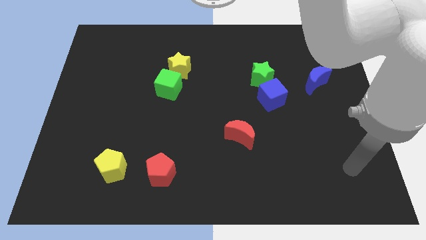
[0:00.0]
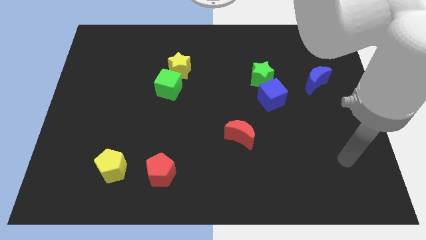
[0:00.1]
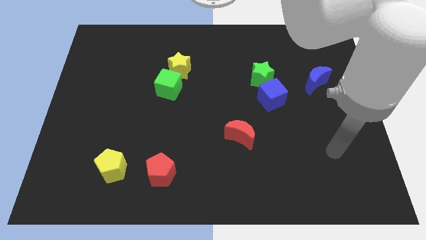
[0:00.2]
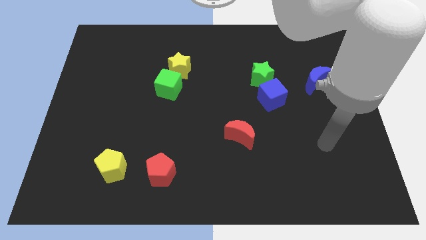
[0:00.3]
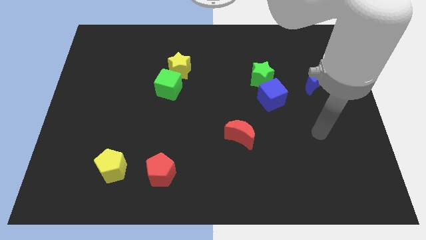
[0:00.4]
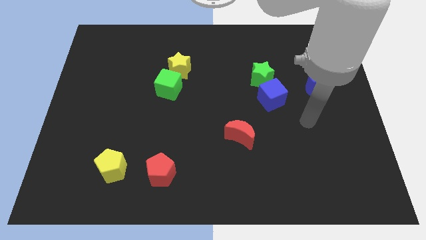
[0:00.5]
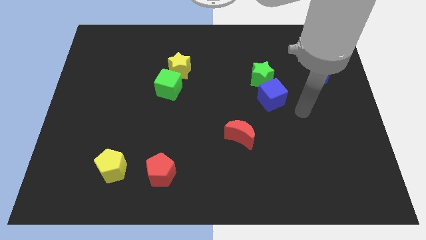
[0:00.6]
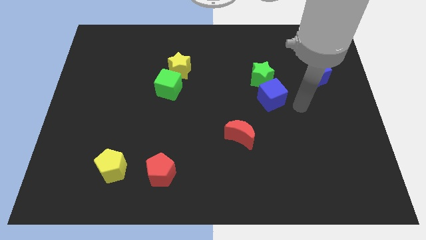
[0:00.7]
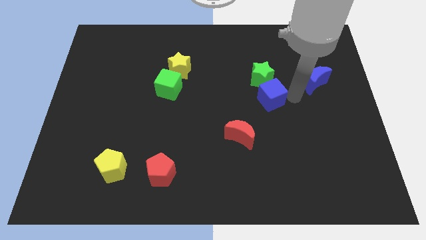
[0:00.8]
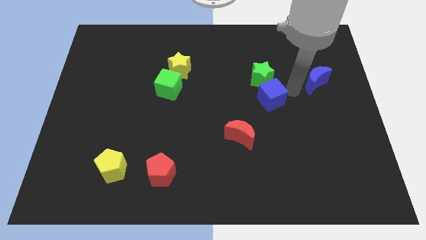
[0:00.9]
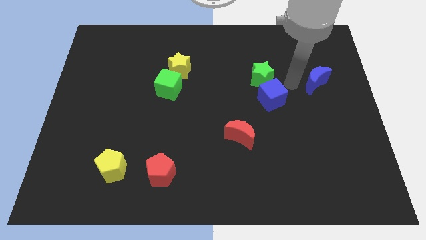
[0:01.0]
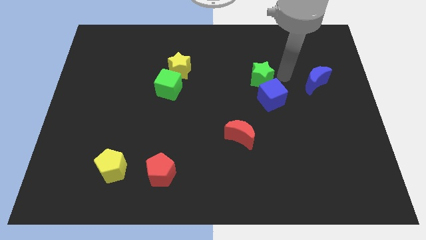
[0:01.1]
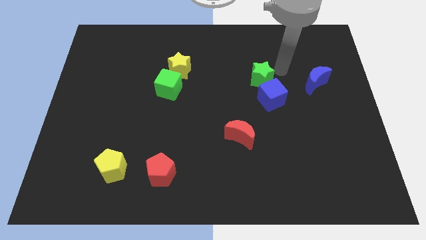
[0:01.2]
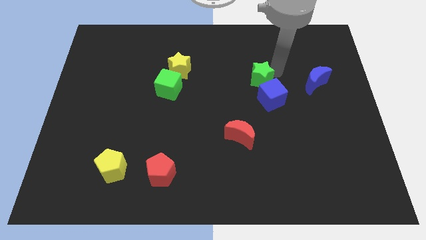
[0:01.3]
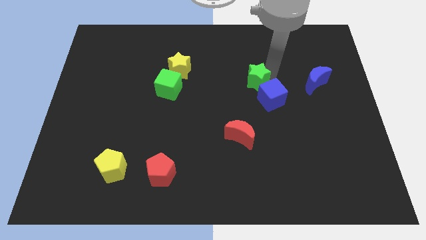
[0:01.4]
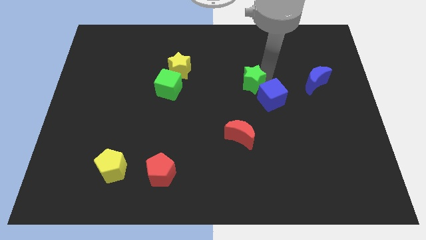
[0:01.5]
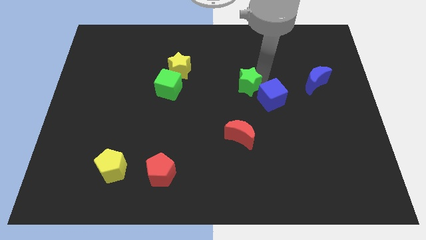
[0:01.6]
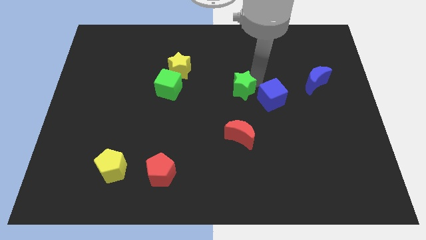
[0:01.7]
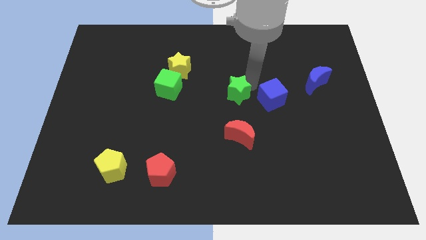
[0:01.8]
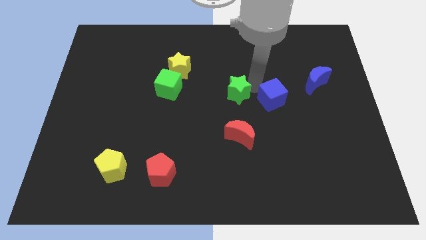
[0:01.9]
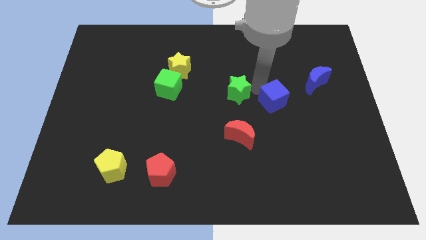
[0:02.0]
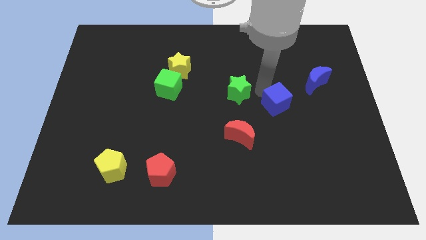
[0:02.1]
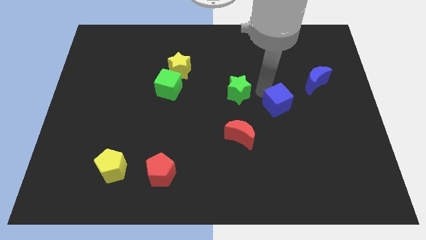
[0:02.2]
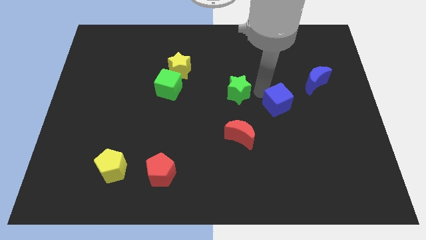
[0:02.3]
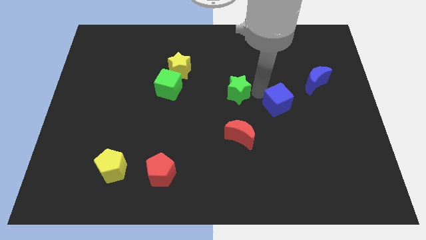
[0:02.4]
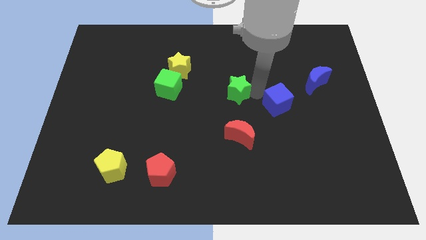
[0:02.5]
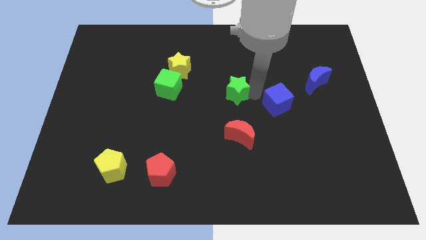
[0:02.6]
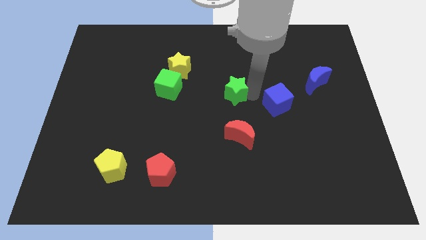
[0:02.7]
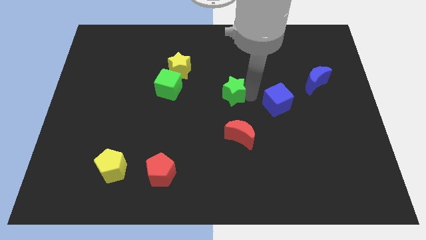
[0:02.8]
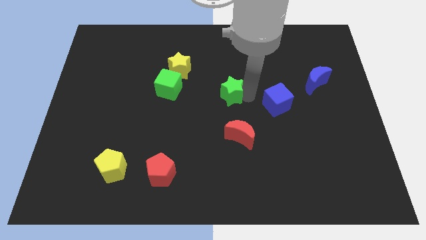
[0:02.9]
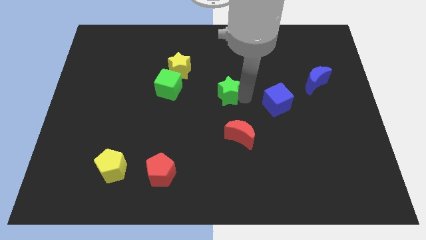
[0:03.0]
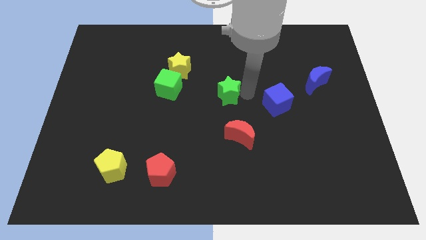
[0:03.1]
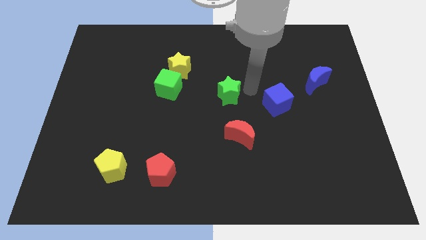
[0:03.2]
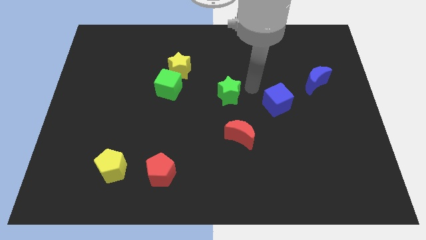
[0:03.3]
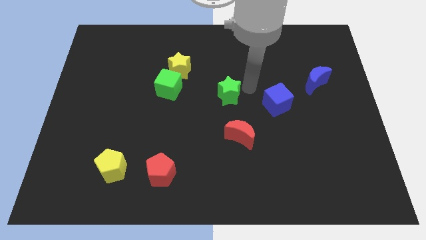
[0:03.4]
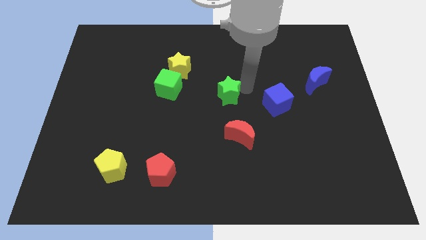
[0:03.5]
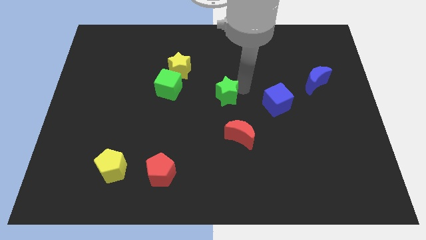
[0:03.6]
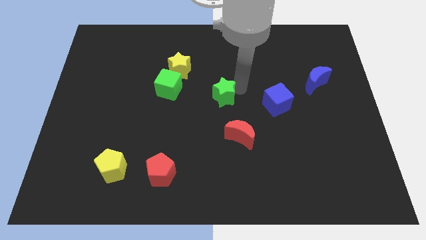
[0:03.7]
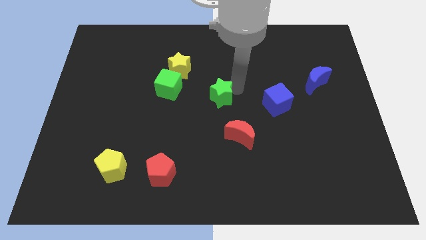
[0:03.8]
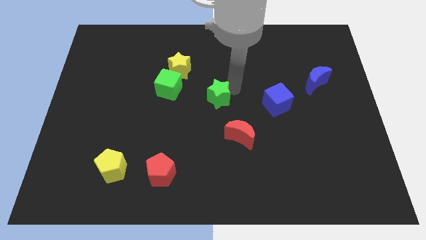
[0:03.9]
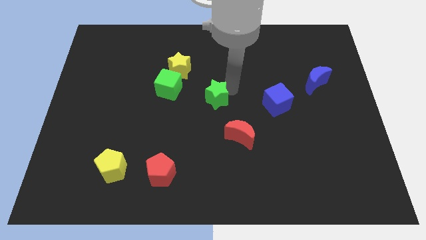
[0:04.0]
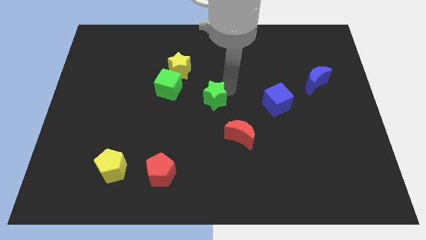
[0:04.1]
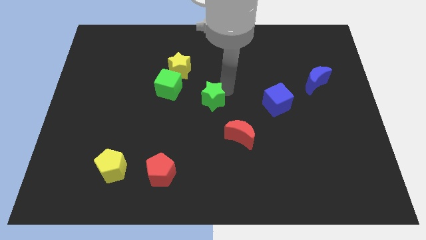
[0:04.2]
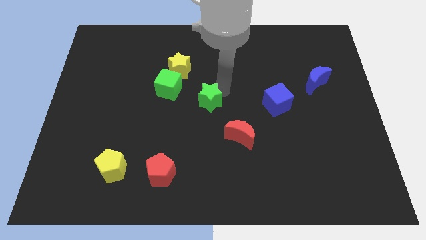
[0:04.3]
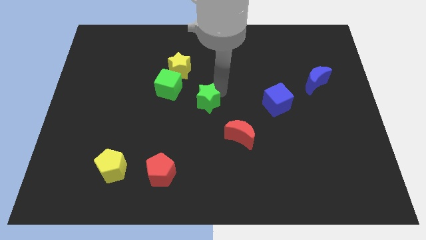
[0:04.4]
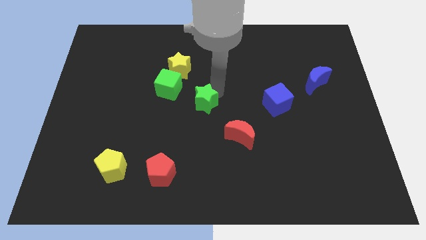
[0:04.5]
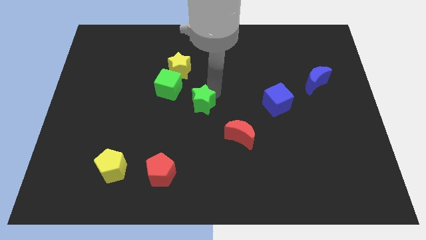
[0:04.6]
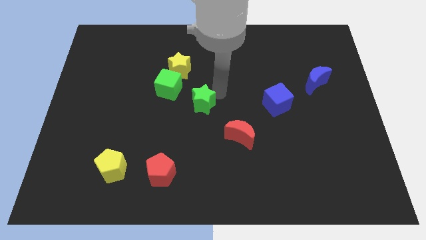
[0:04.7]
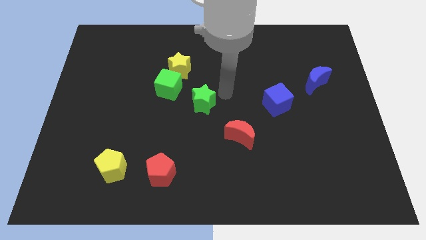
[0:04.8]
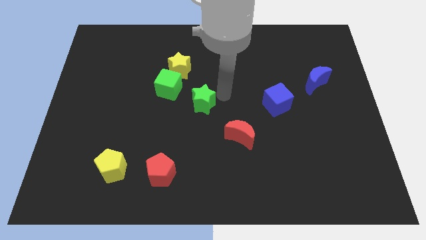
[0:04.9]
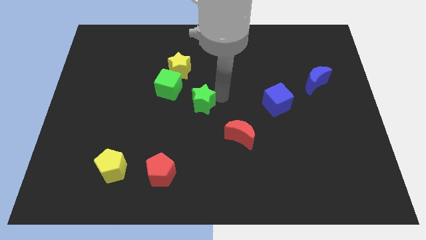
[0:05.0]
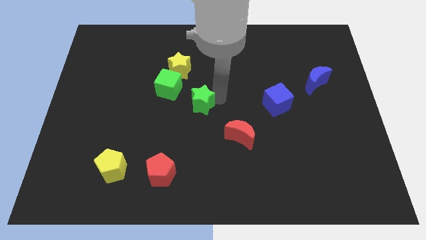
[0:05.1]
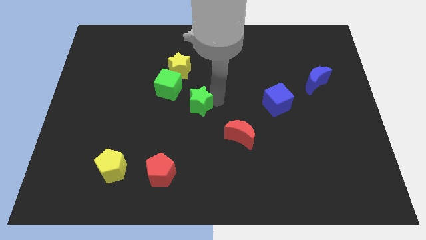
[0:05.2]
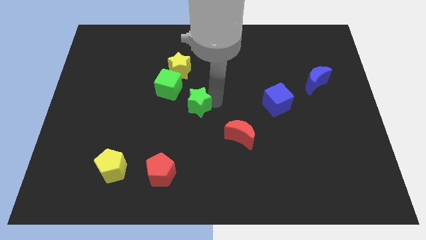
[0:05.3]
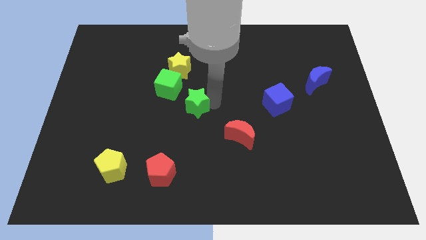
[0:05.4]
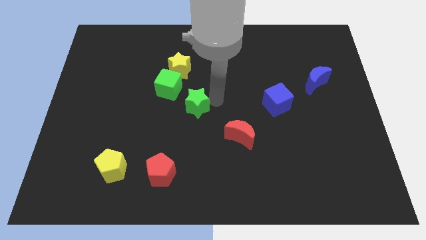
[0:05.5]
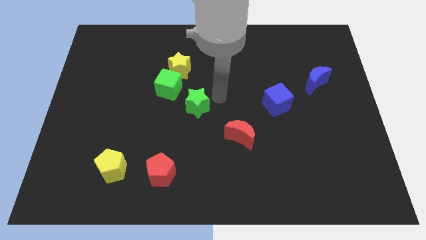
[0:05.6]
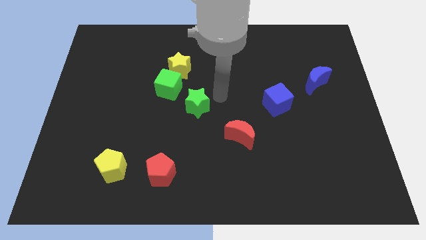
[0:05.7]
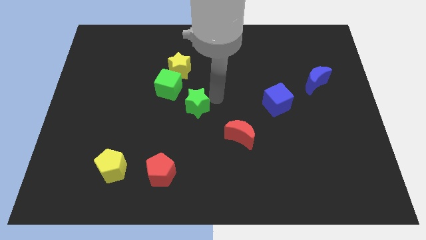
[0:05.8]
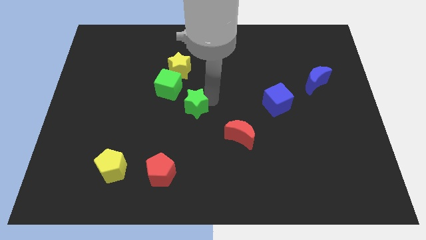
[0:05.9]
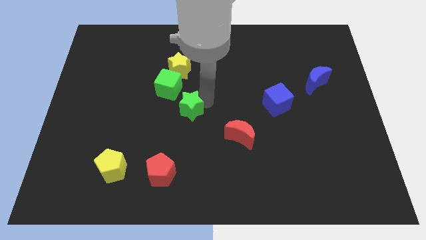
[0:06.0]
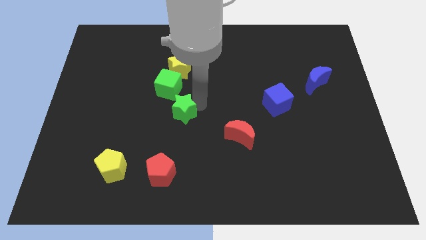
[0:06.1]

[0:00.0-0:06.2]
slide the green star to the bottom of the green cube

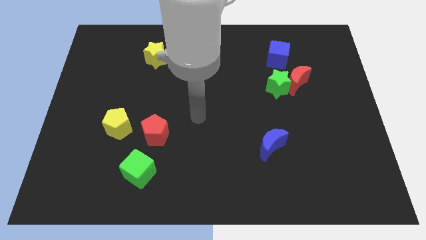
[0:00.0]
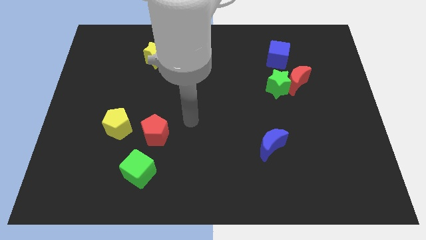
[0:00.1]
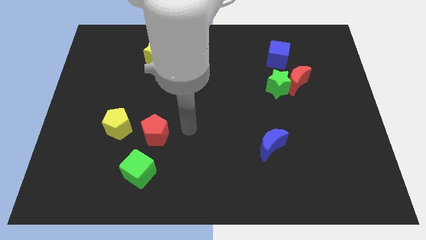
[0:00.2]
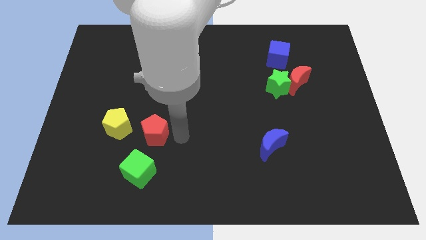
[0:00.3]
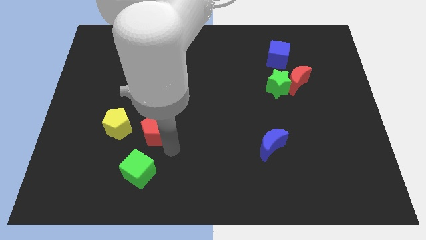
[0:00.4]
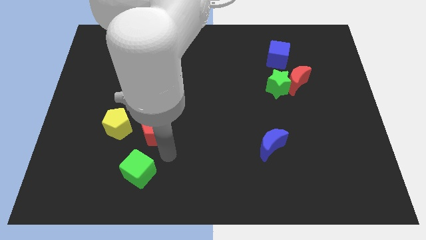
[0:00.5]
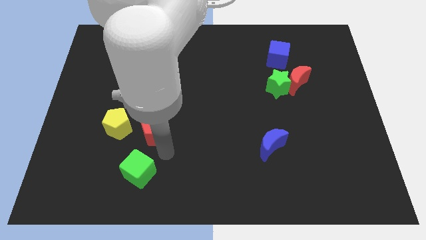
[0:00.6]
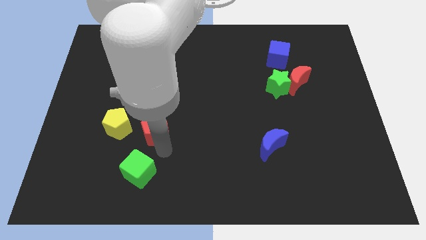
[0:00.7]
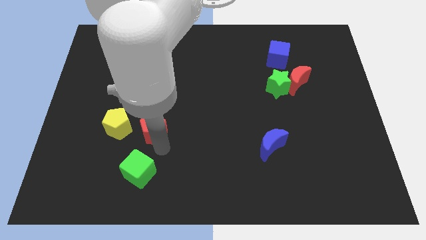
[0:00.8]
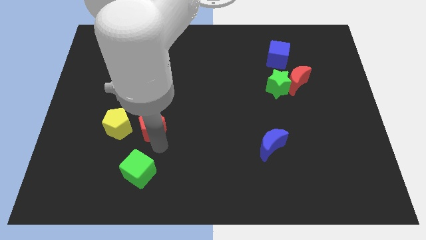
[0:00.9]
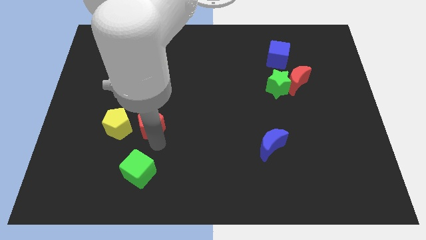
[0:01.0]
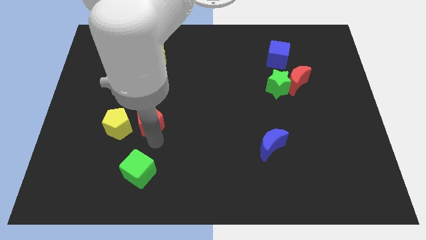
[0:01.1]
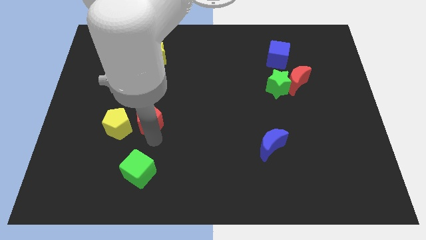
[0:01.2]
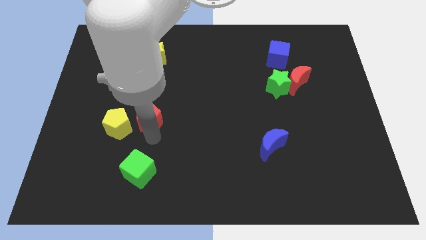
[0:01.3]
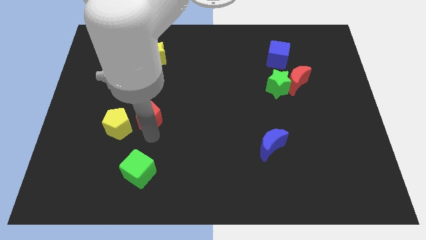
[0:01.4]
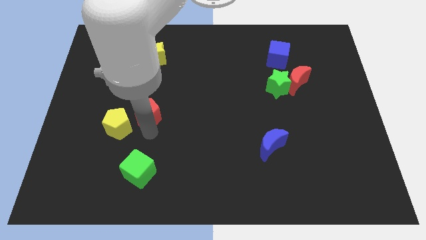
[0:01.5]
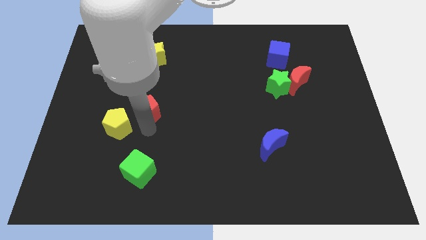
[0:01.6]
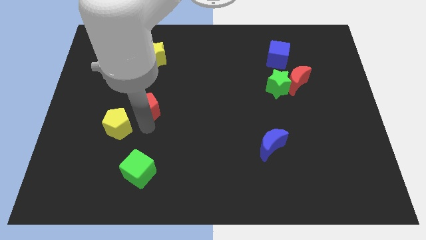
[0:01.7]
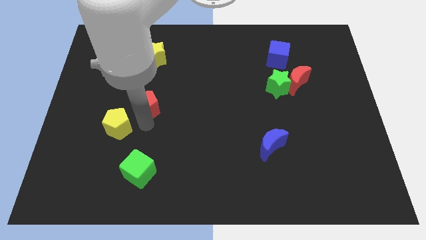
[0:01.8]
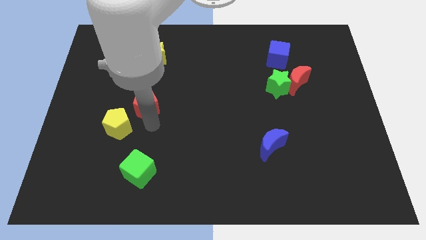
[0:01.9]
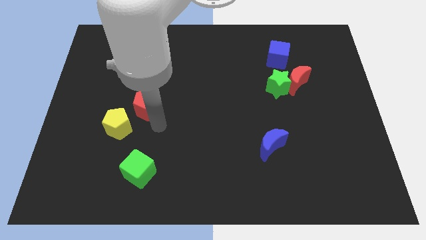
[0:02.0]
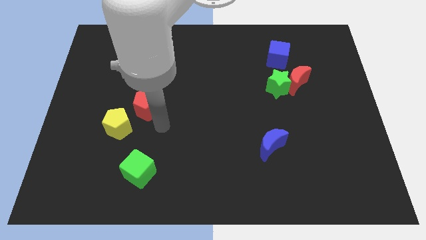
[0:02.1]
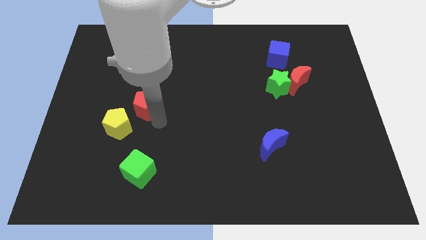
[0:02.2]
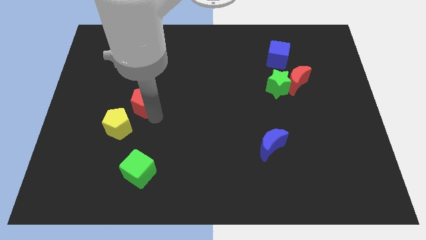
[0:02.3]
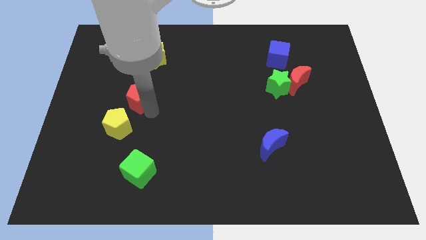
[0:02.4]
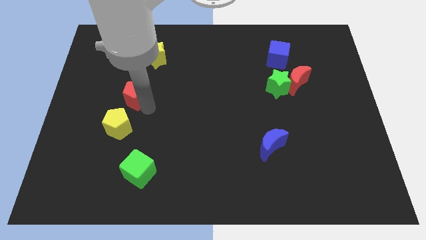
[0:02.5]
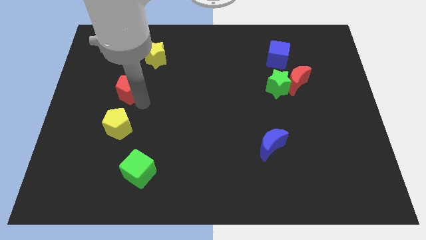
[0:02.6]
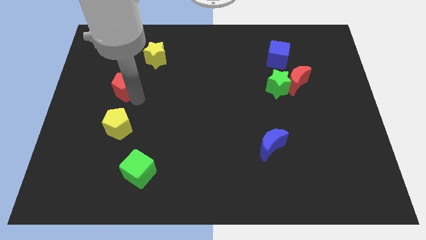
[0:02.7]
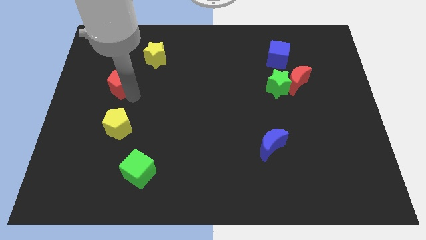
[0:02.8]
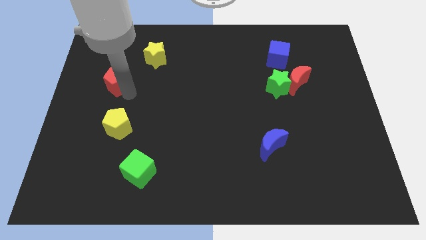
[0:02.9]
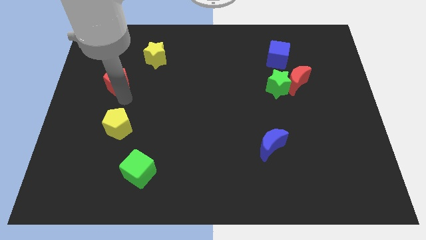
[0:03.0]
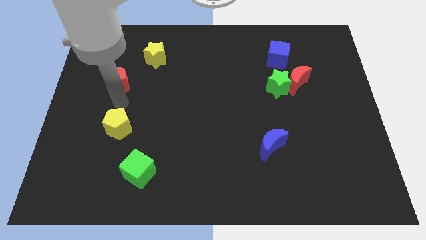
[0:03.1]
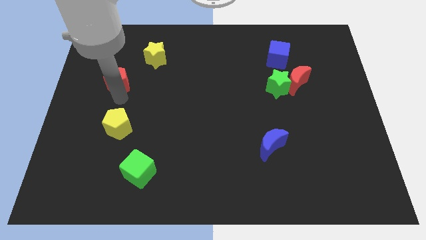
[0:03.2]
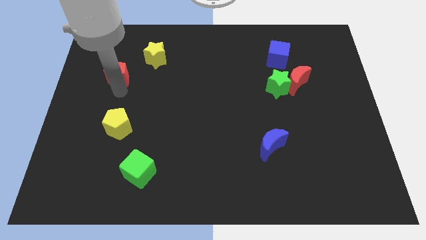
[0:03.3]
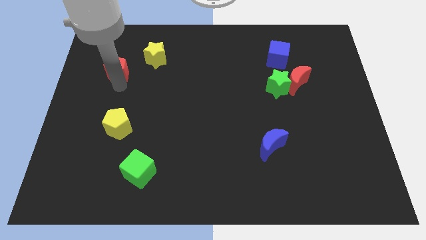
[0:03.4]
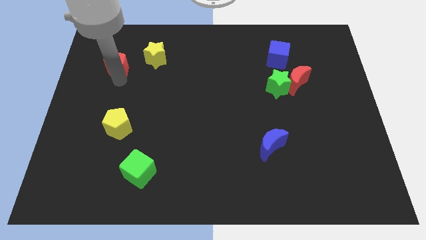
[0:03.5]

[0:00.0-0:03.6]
push the red pentagon left of the yellow star
